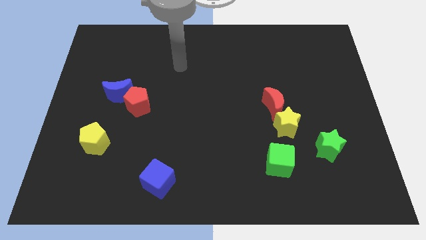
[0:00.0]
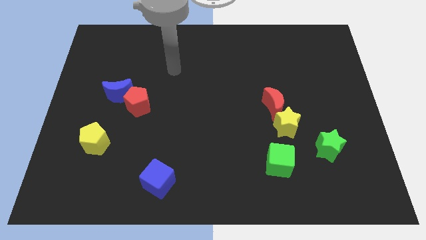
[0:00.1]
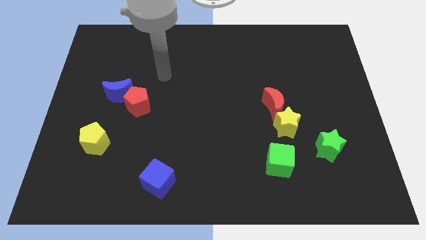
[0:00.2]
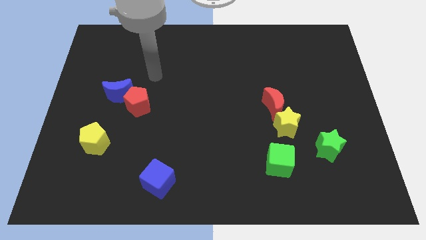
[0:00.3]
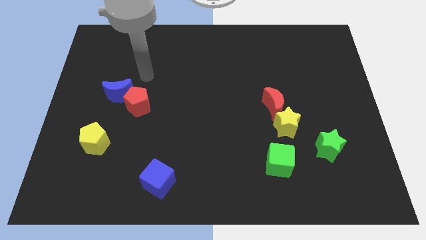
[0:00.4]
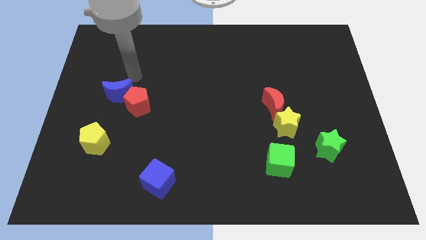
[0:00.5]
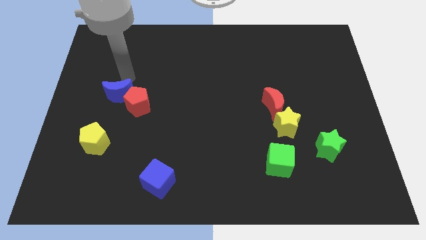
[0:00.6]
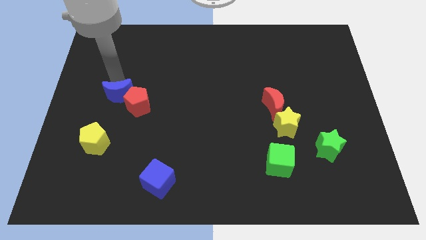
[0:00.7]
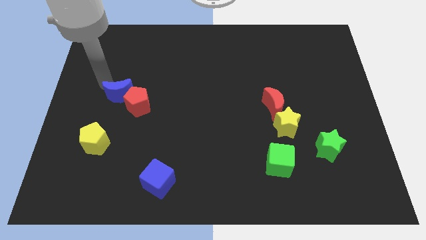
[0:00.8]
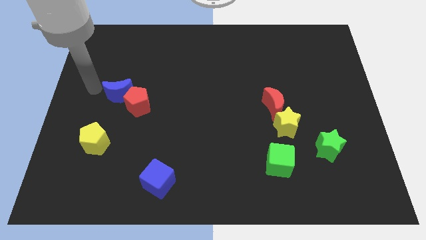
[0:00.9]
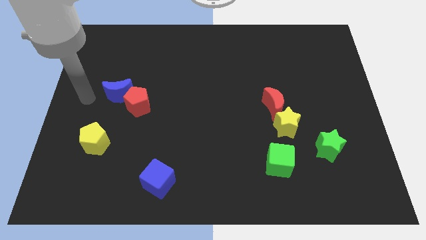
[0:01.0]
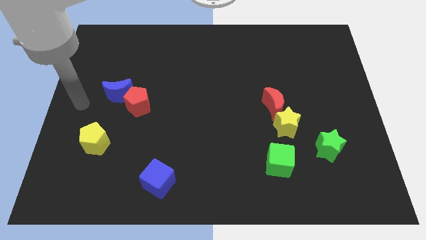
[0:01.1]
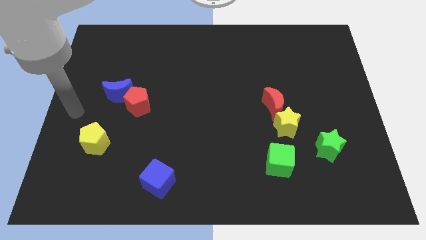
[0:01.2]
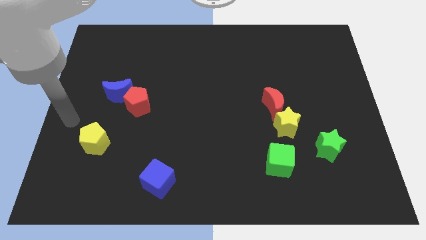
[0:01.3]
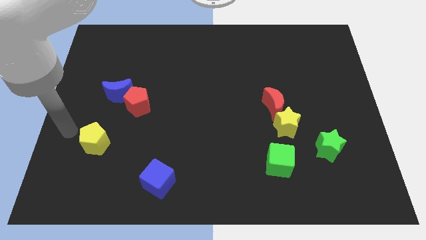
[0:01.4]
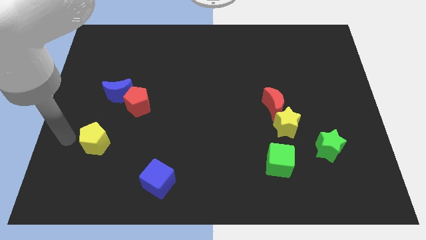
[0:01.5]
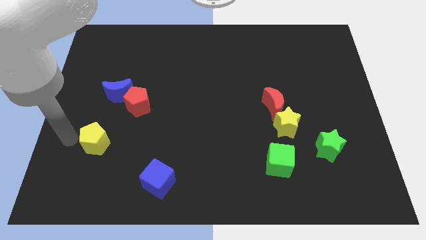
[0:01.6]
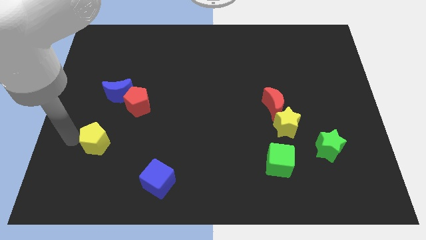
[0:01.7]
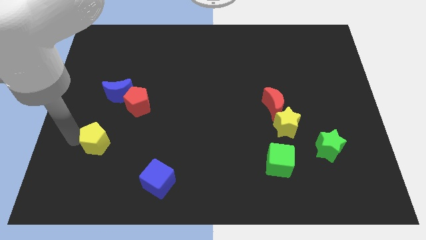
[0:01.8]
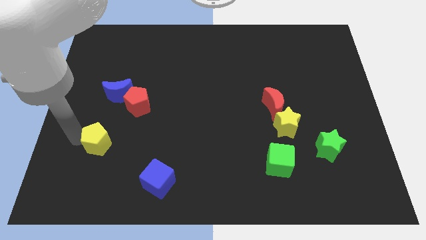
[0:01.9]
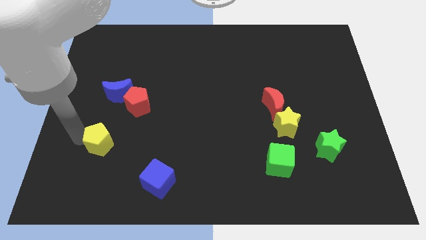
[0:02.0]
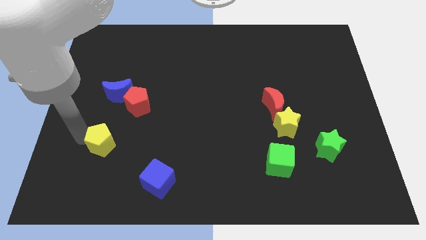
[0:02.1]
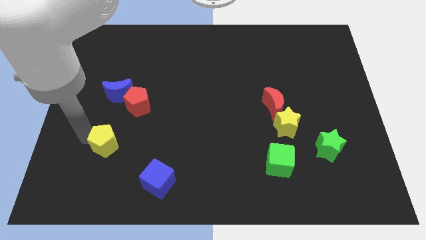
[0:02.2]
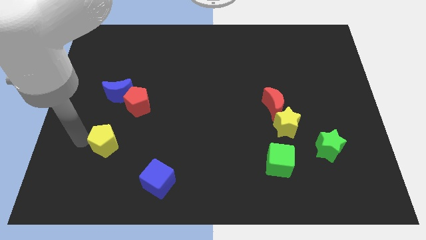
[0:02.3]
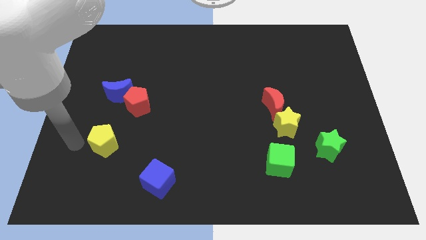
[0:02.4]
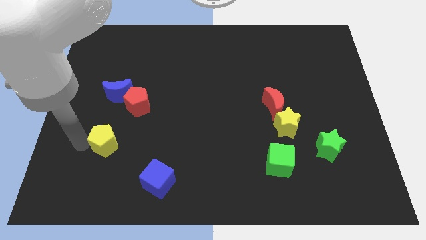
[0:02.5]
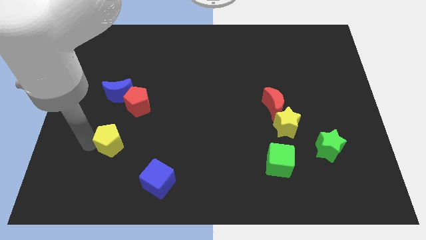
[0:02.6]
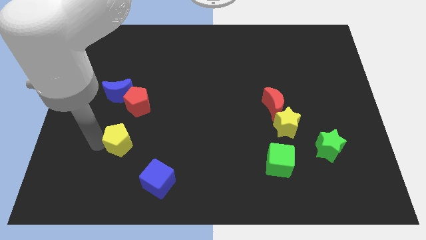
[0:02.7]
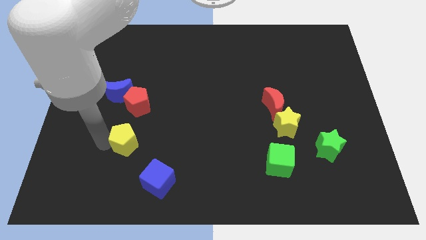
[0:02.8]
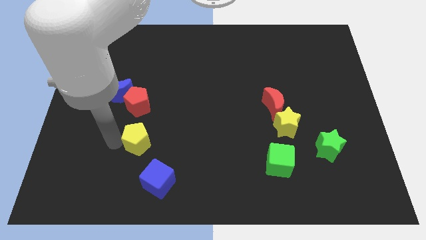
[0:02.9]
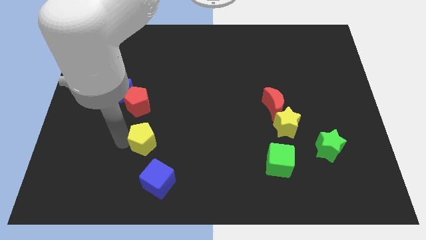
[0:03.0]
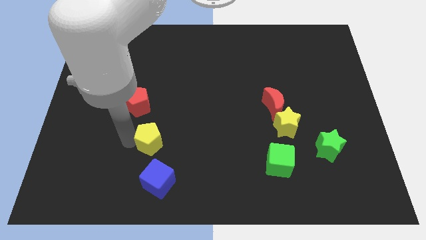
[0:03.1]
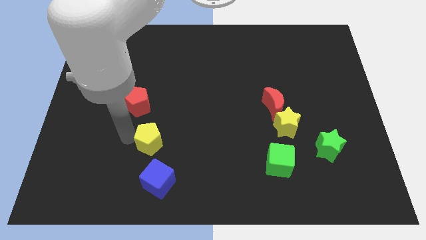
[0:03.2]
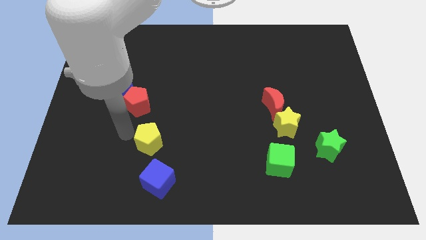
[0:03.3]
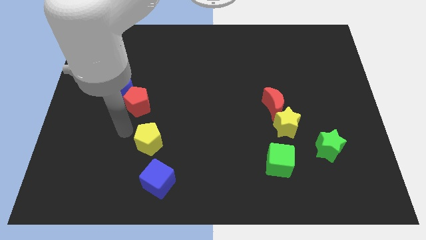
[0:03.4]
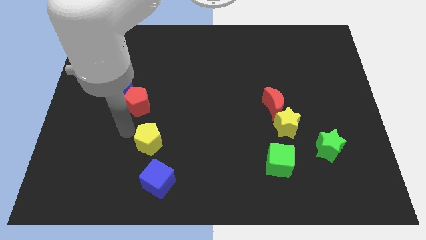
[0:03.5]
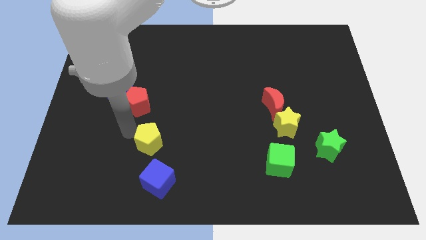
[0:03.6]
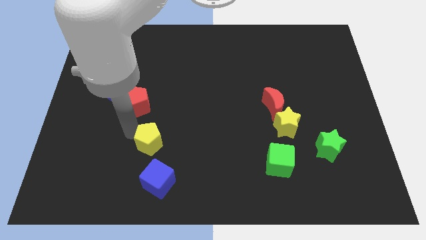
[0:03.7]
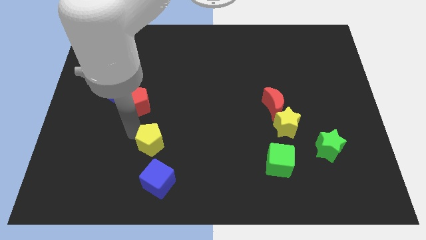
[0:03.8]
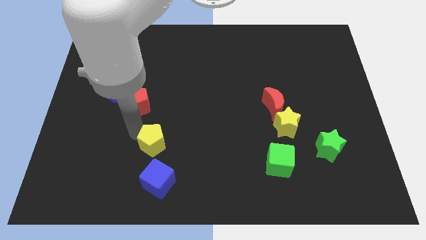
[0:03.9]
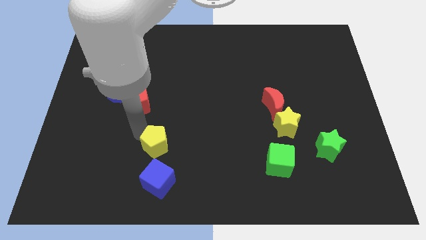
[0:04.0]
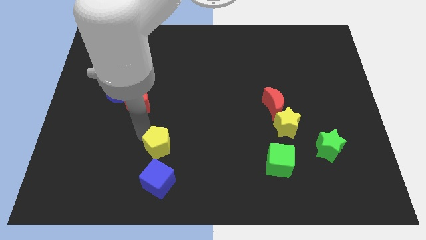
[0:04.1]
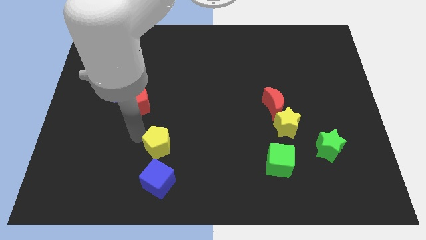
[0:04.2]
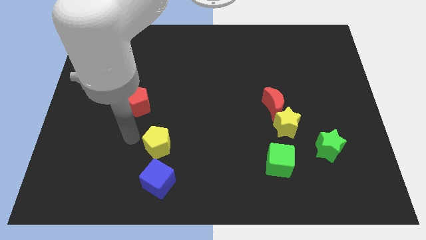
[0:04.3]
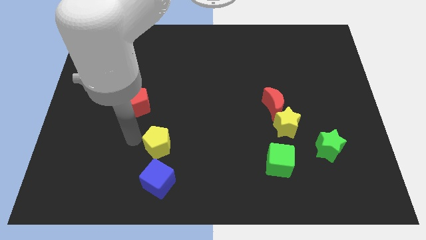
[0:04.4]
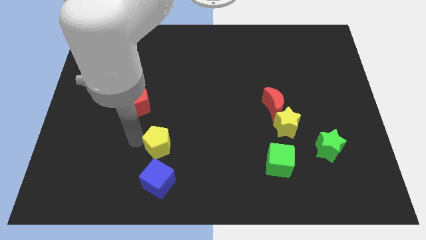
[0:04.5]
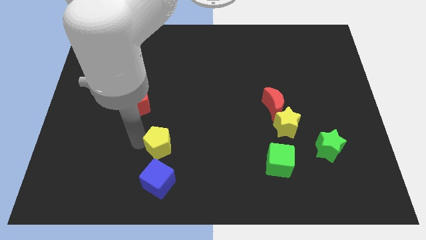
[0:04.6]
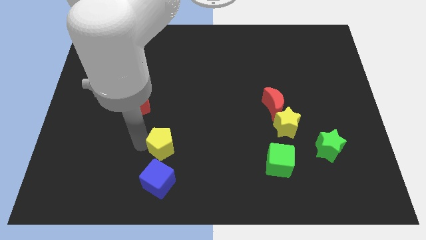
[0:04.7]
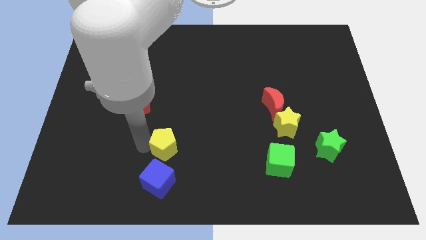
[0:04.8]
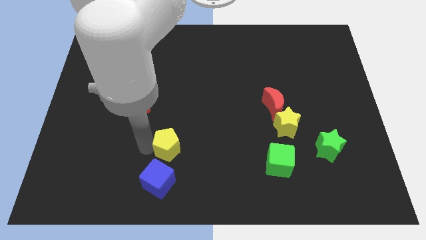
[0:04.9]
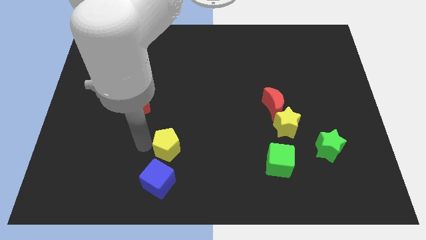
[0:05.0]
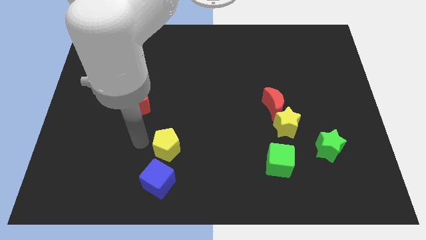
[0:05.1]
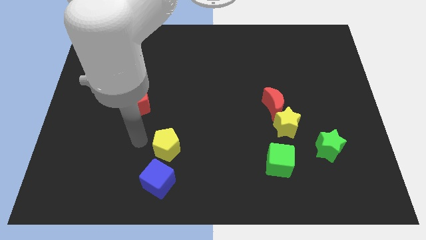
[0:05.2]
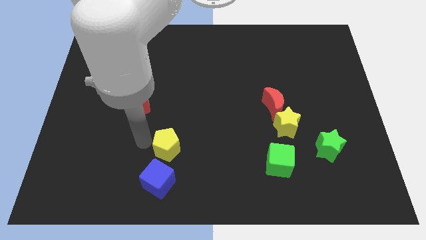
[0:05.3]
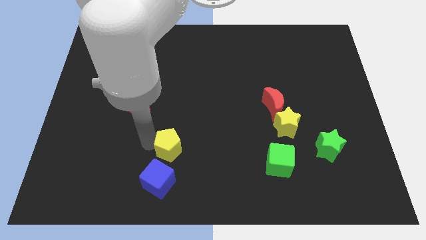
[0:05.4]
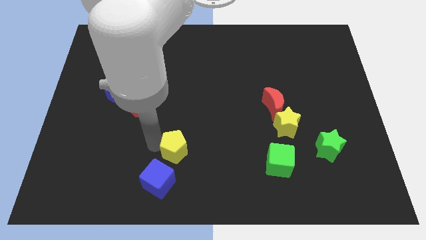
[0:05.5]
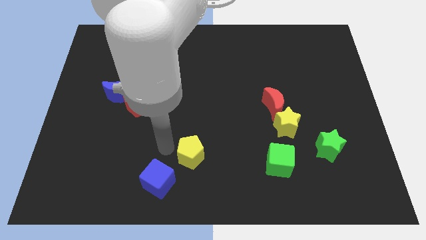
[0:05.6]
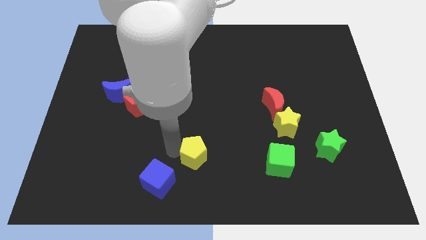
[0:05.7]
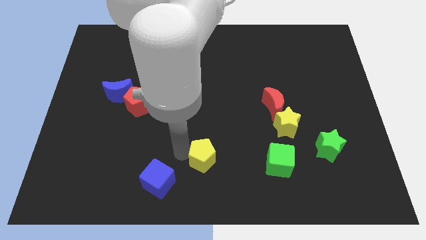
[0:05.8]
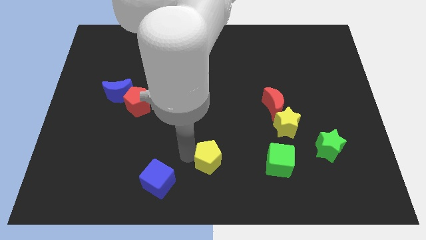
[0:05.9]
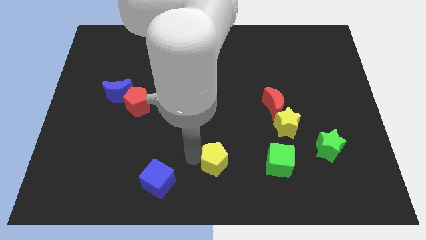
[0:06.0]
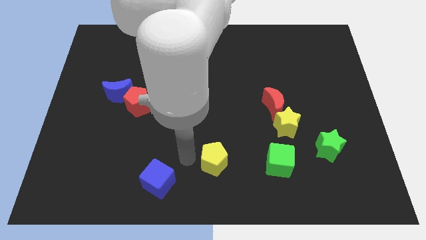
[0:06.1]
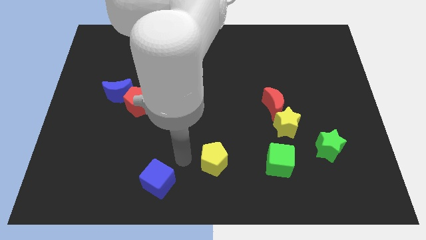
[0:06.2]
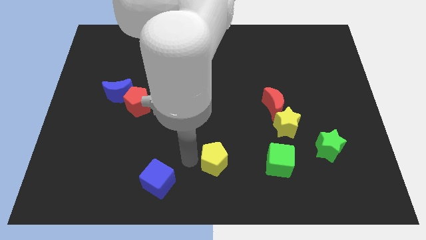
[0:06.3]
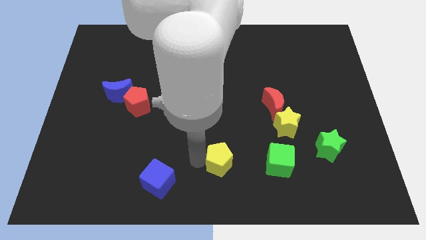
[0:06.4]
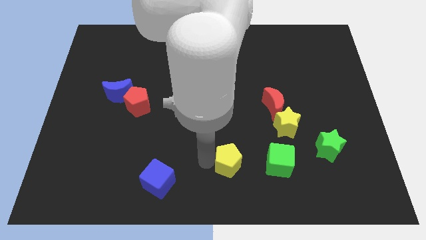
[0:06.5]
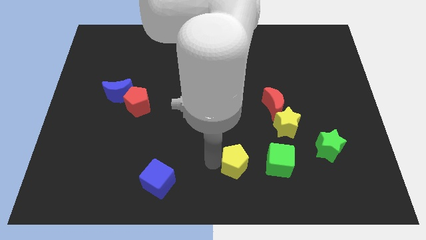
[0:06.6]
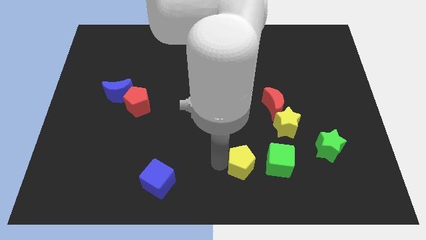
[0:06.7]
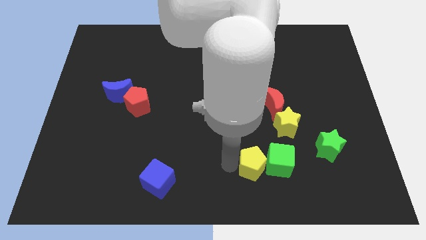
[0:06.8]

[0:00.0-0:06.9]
move the yellow pentagon next to the green cube
